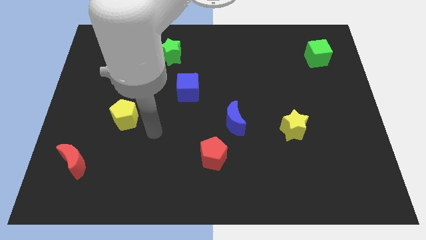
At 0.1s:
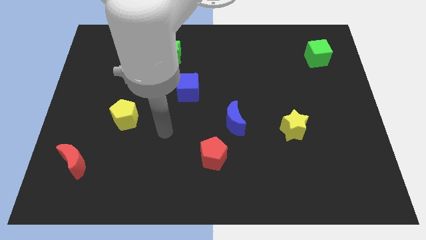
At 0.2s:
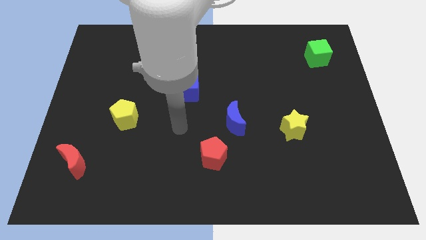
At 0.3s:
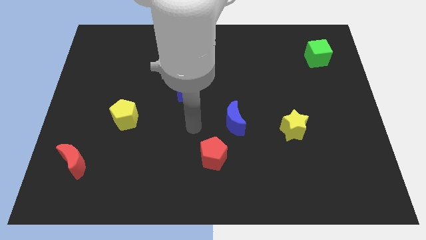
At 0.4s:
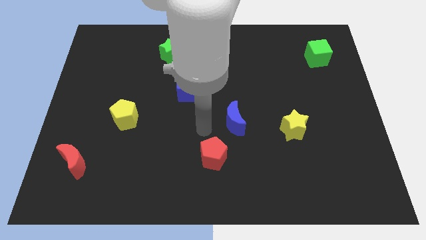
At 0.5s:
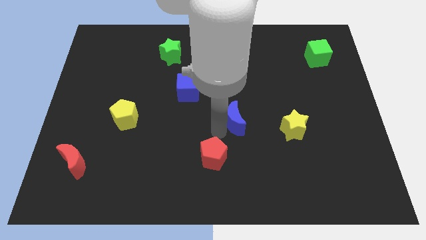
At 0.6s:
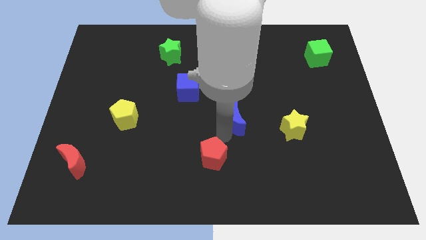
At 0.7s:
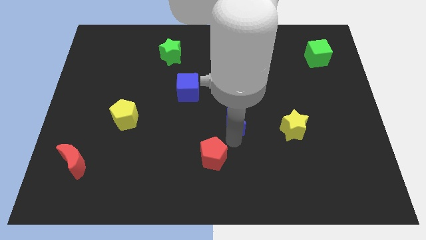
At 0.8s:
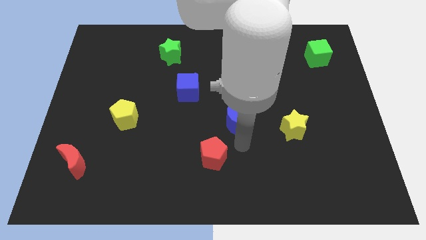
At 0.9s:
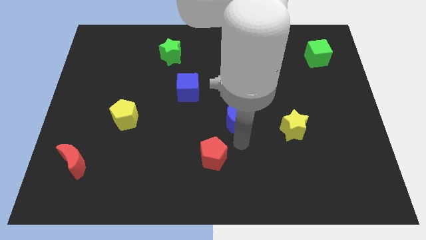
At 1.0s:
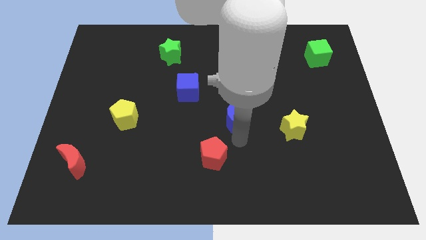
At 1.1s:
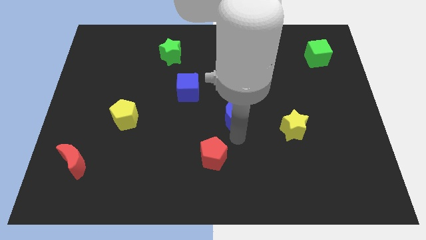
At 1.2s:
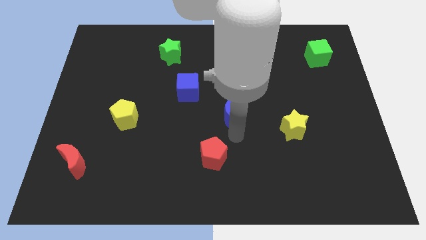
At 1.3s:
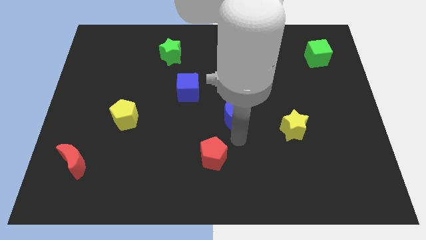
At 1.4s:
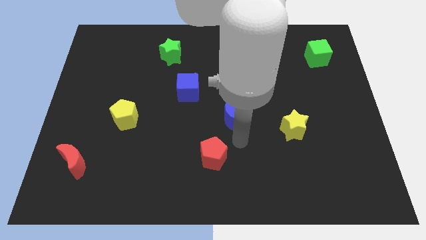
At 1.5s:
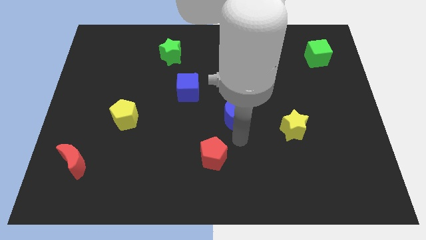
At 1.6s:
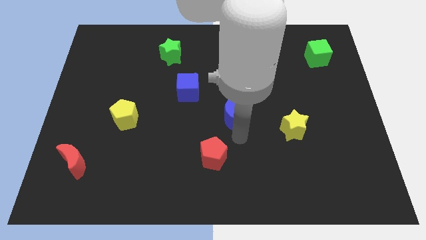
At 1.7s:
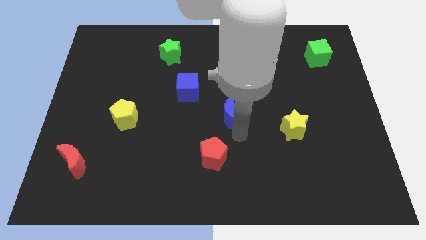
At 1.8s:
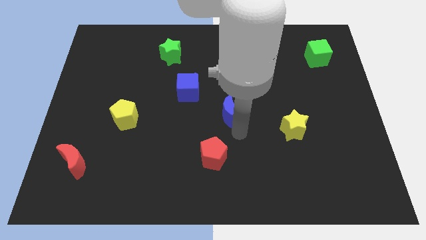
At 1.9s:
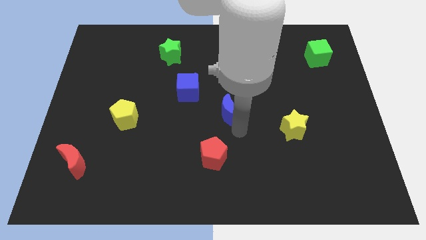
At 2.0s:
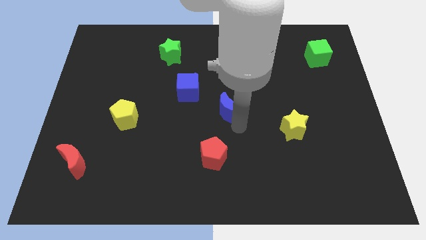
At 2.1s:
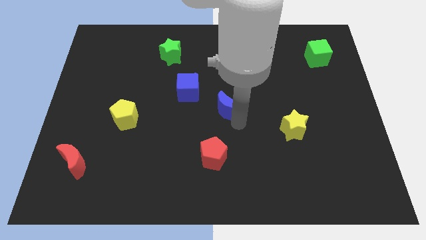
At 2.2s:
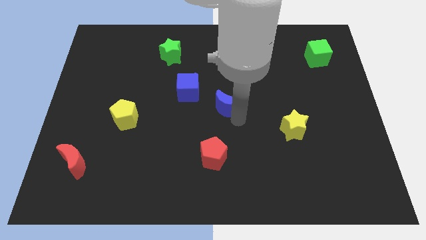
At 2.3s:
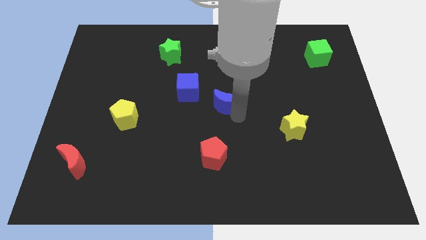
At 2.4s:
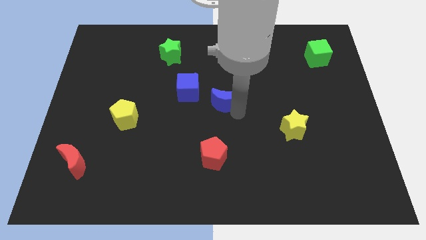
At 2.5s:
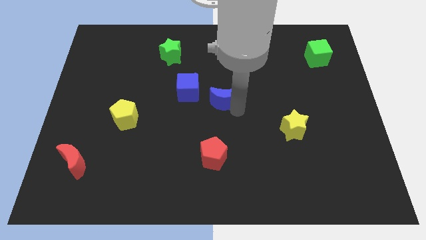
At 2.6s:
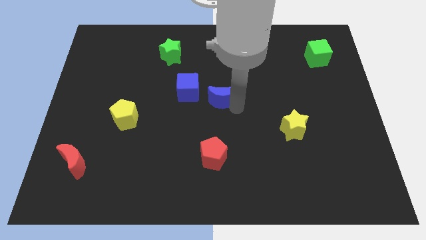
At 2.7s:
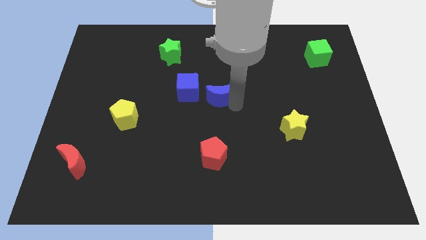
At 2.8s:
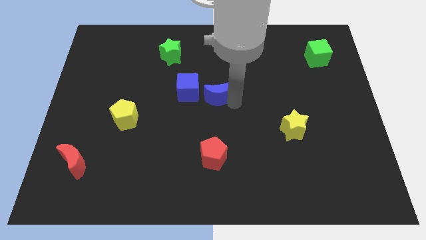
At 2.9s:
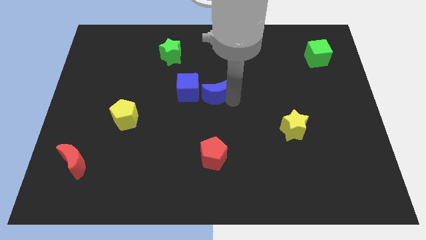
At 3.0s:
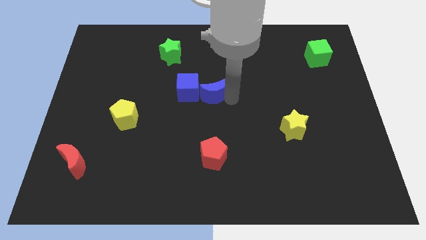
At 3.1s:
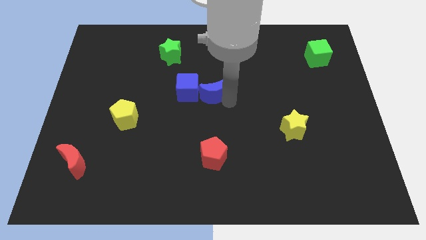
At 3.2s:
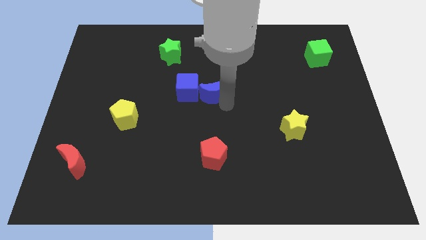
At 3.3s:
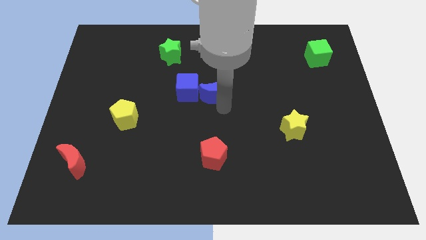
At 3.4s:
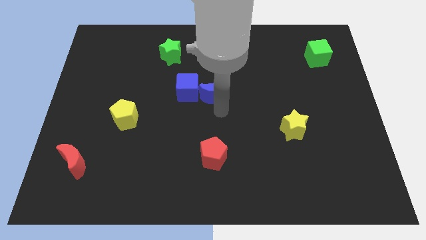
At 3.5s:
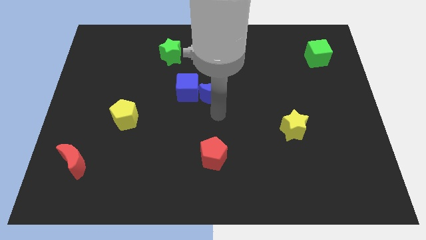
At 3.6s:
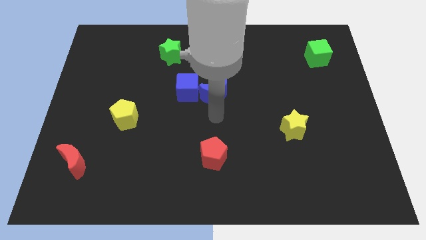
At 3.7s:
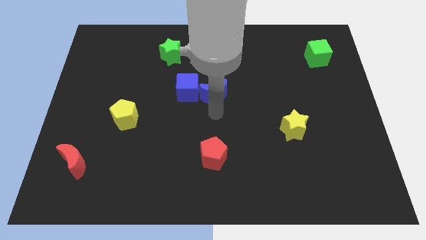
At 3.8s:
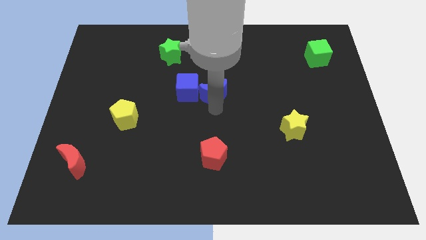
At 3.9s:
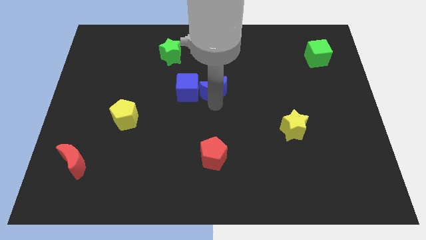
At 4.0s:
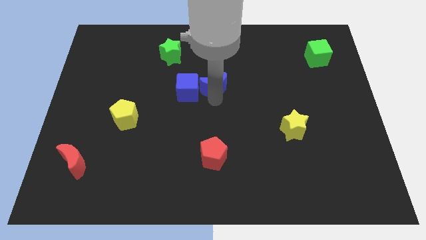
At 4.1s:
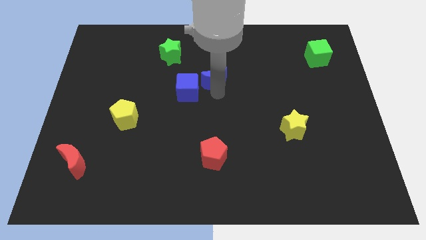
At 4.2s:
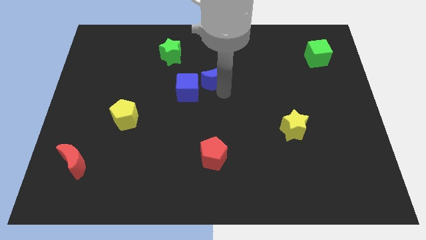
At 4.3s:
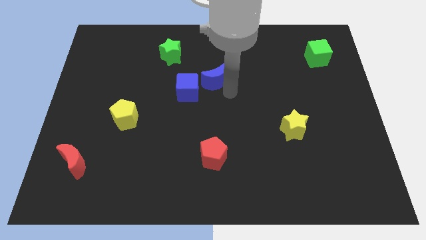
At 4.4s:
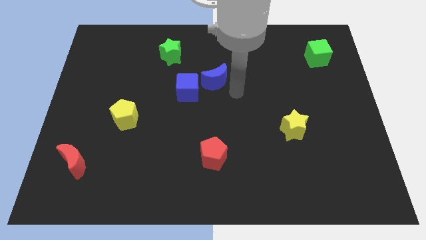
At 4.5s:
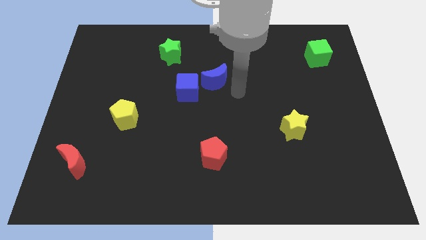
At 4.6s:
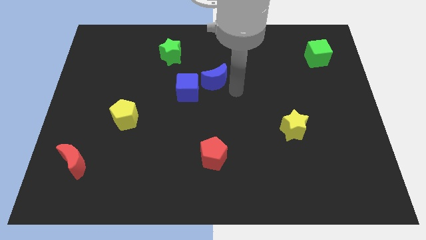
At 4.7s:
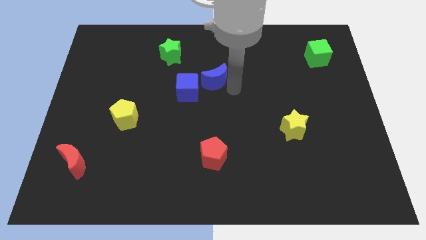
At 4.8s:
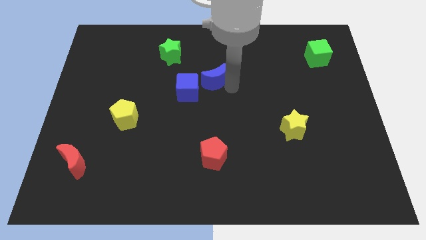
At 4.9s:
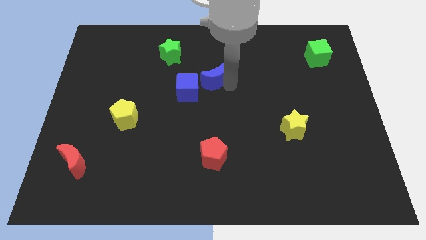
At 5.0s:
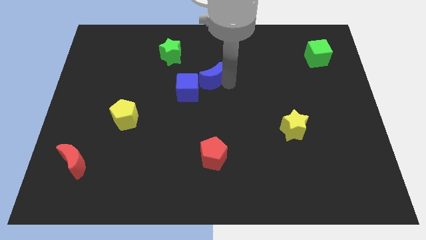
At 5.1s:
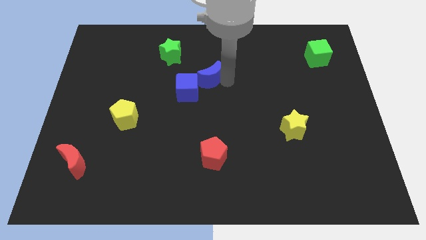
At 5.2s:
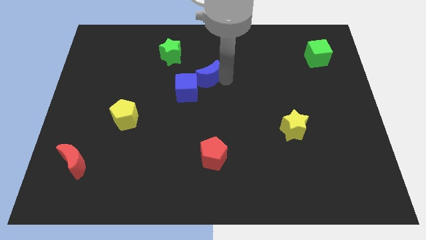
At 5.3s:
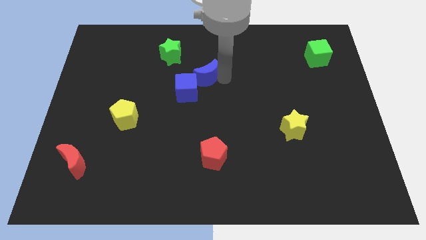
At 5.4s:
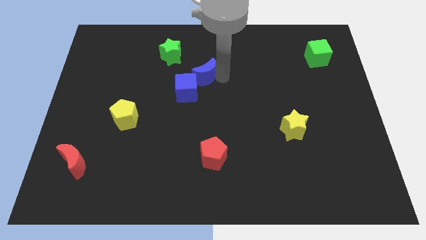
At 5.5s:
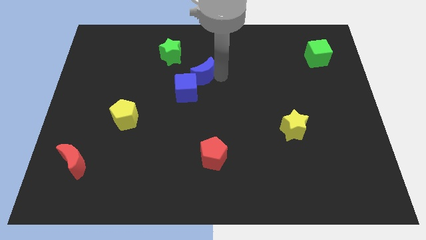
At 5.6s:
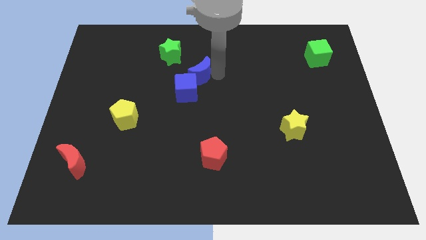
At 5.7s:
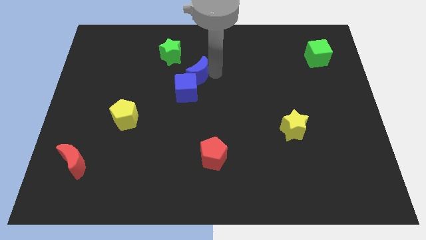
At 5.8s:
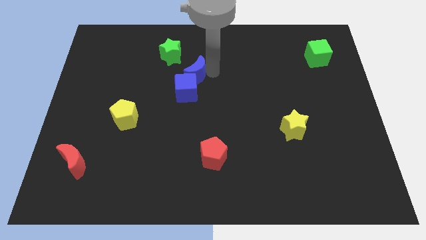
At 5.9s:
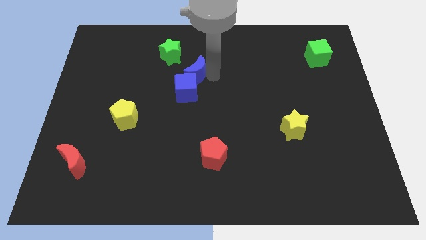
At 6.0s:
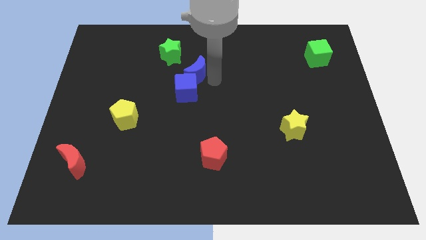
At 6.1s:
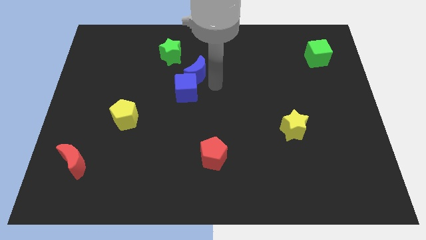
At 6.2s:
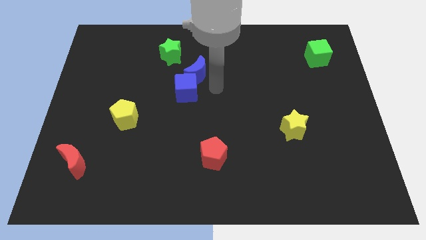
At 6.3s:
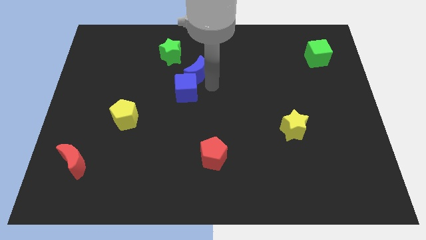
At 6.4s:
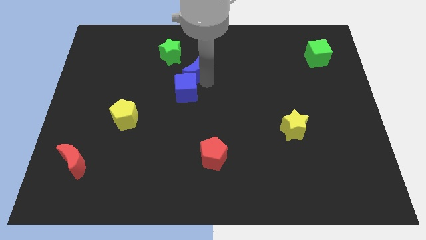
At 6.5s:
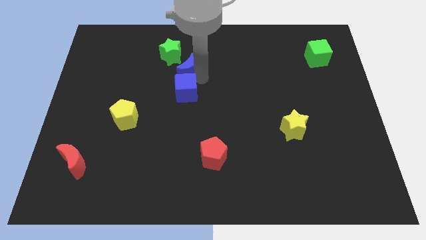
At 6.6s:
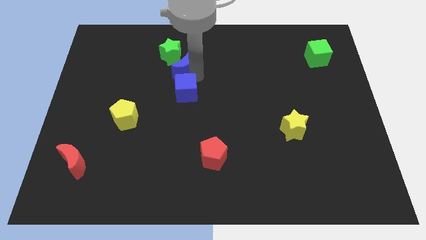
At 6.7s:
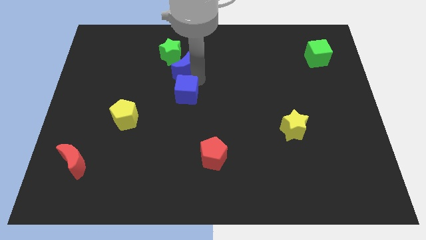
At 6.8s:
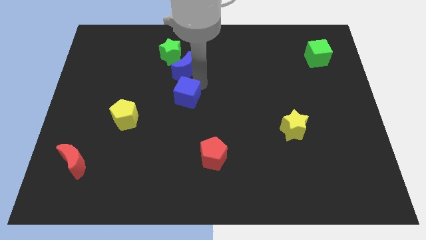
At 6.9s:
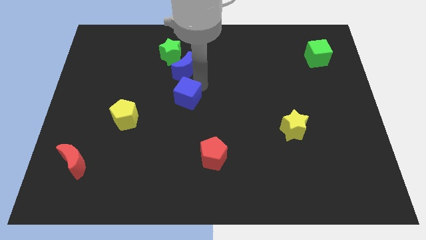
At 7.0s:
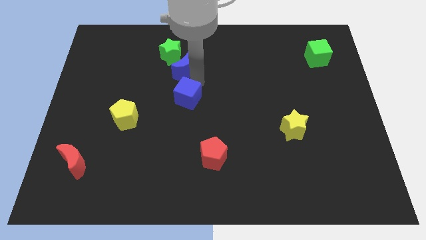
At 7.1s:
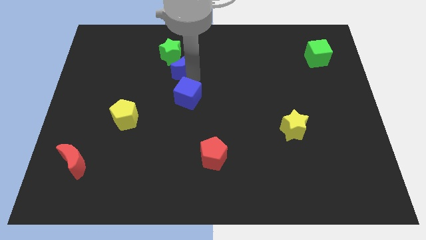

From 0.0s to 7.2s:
slide the blue moon towards the green star
